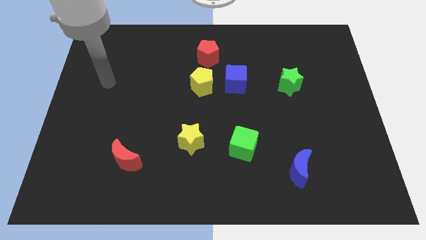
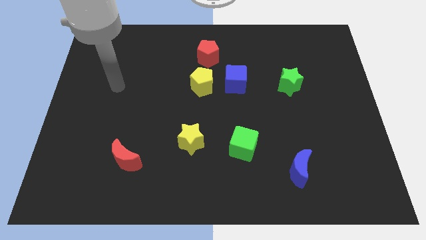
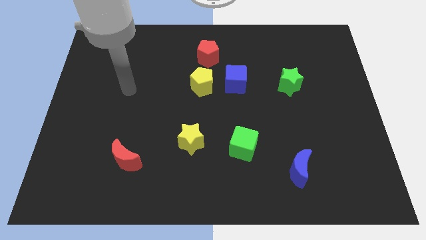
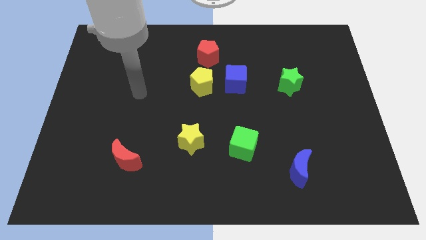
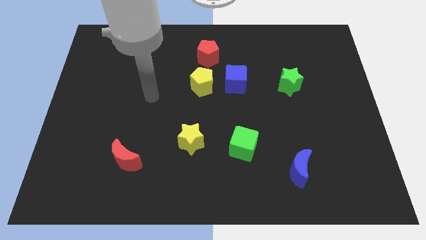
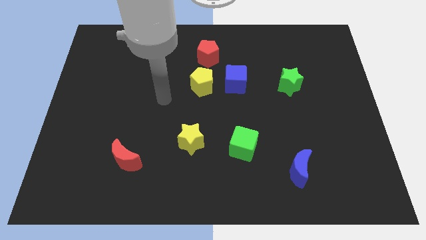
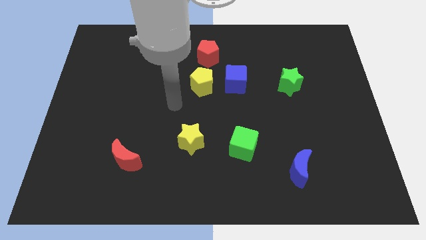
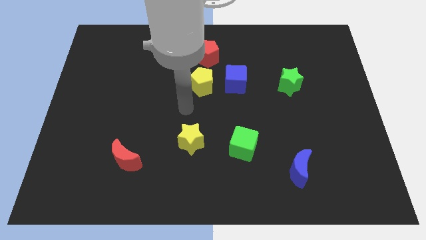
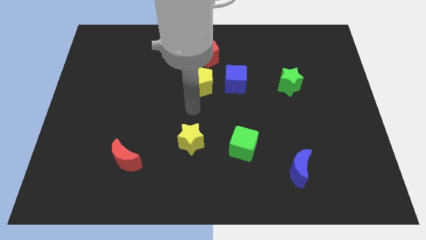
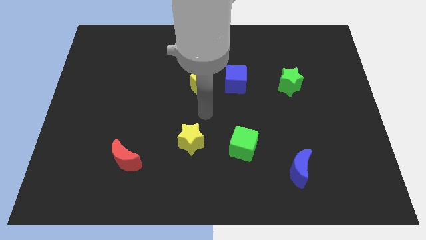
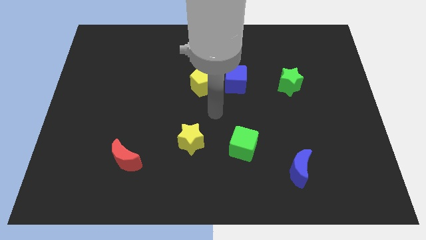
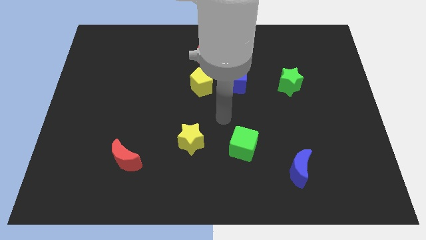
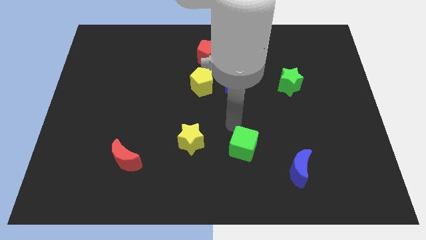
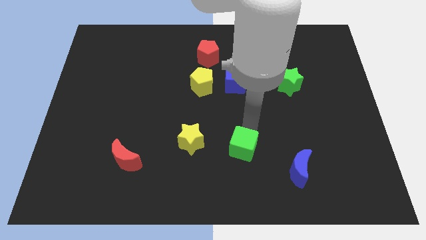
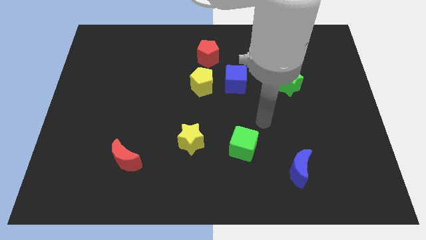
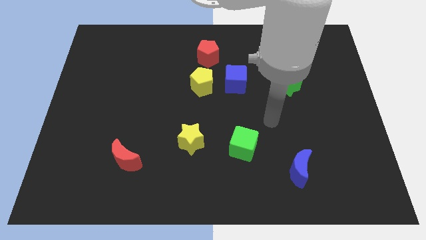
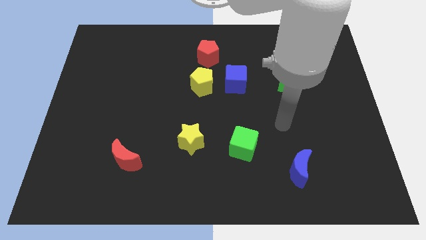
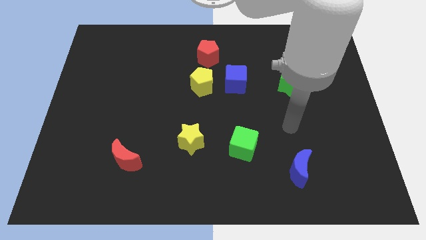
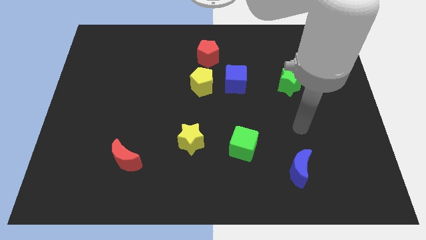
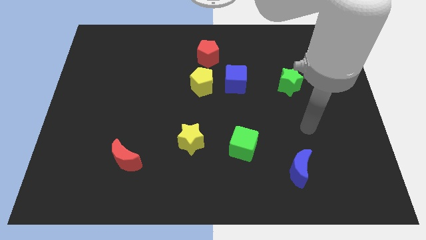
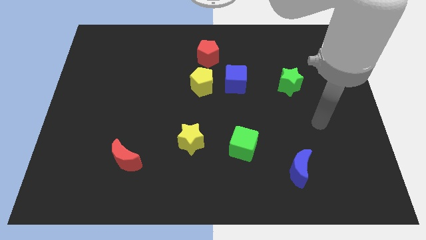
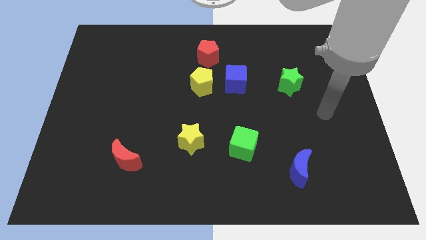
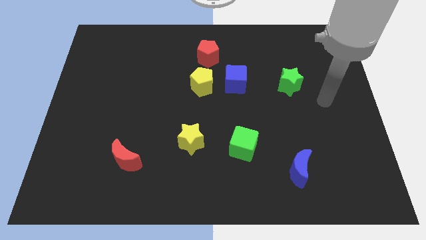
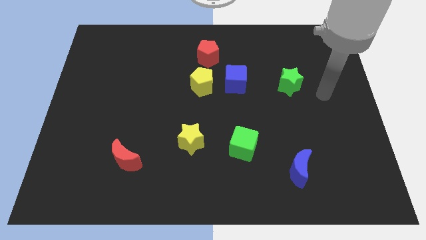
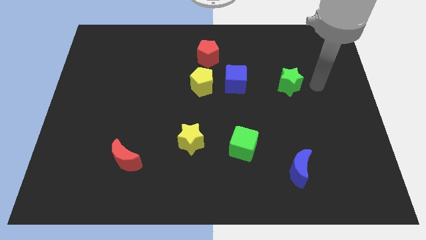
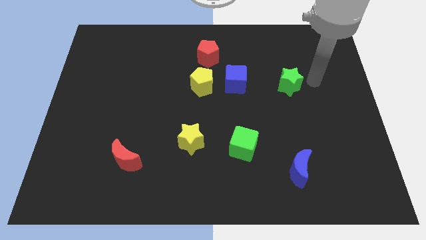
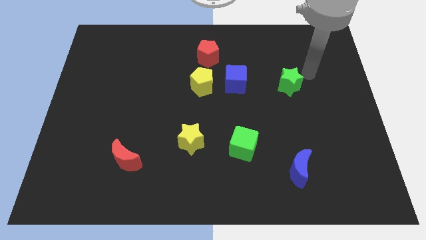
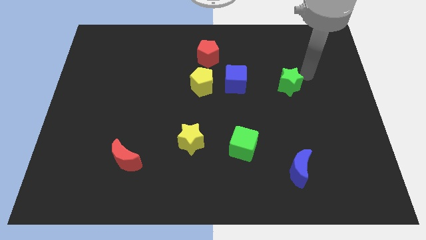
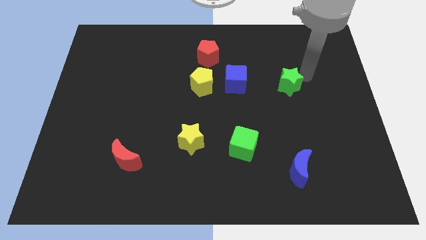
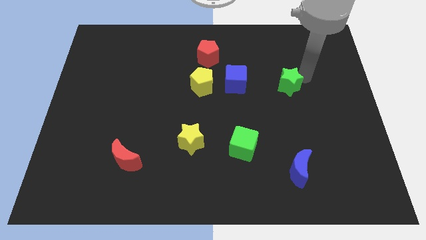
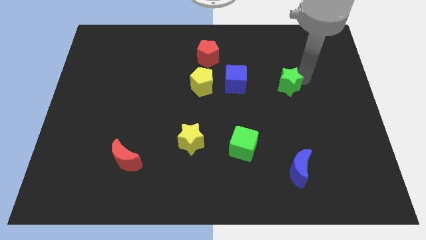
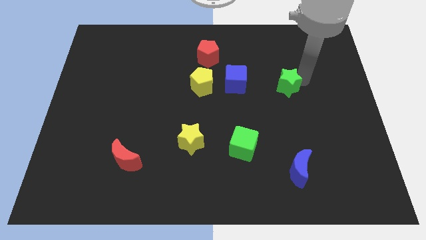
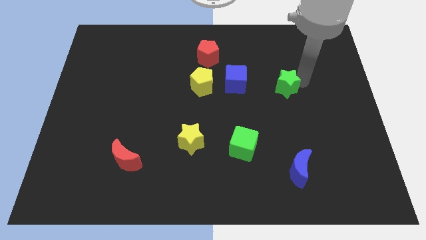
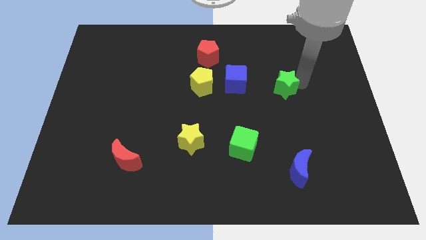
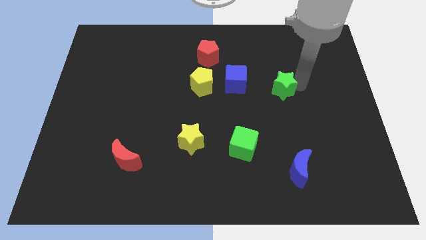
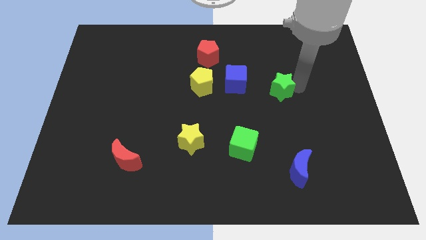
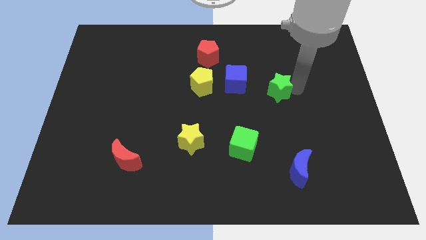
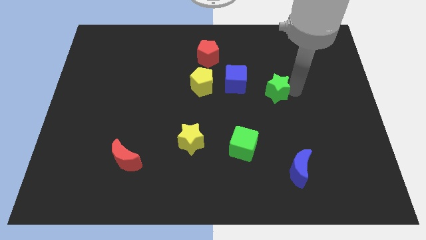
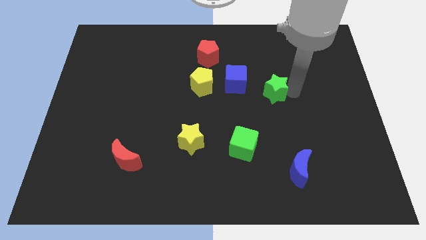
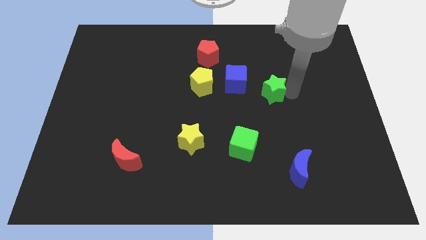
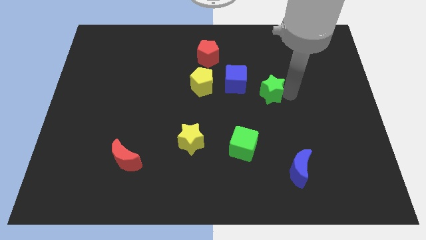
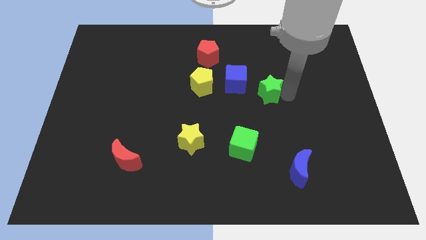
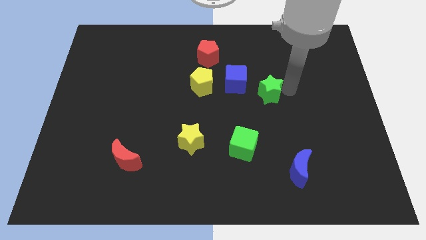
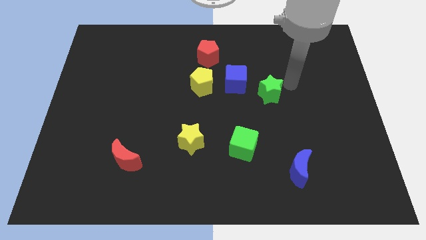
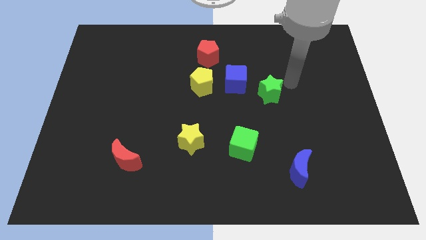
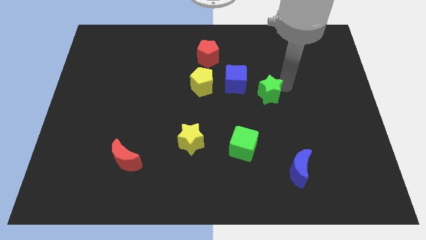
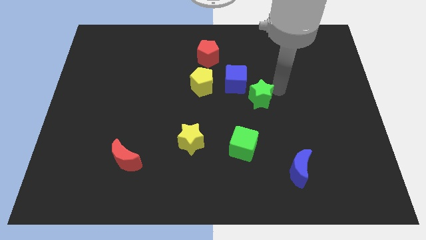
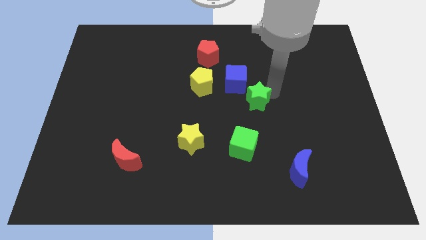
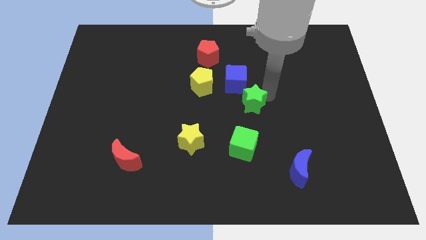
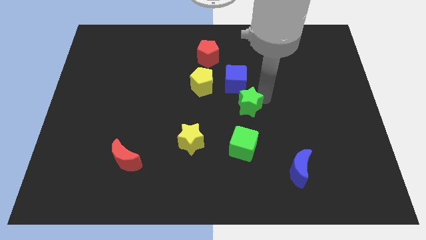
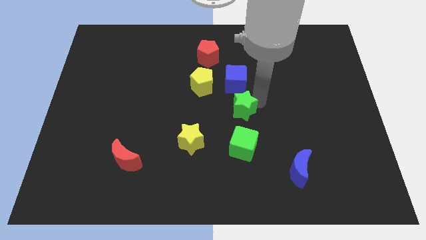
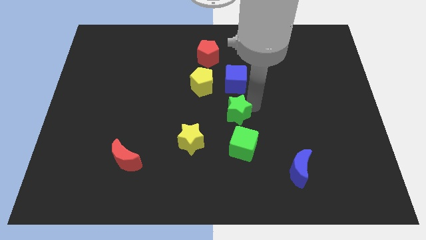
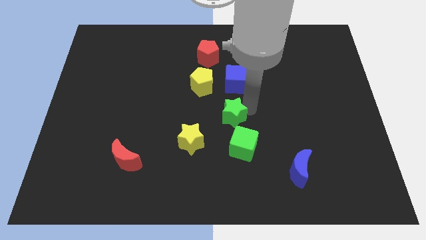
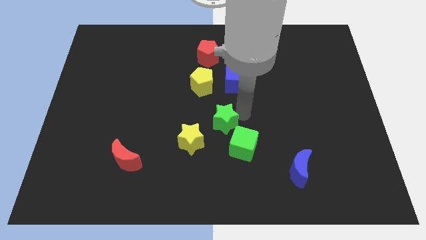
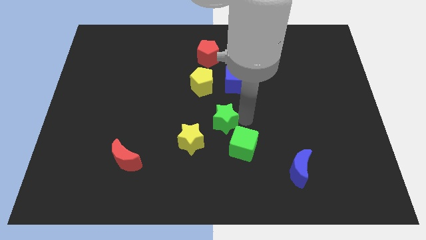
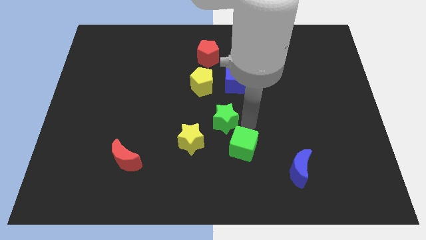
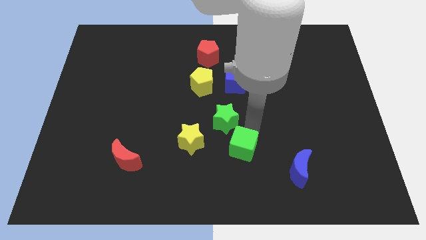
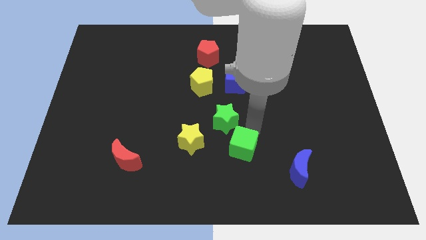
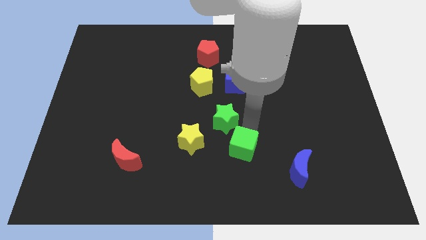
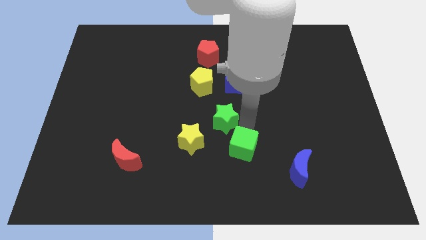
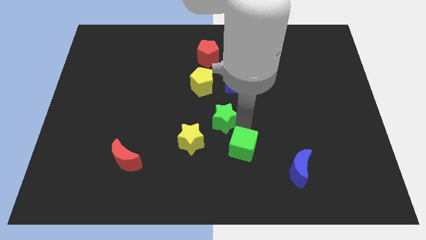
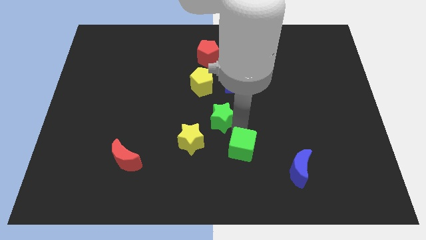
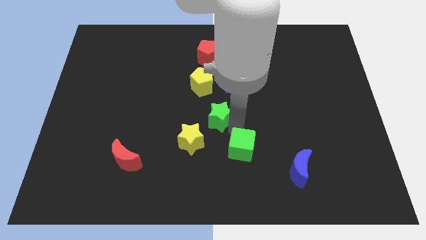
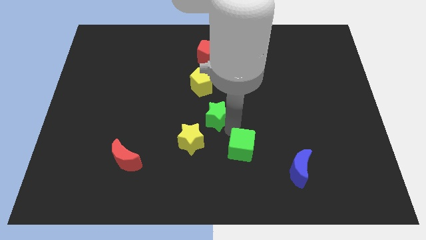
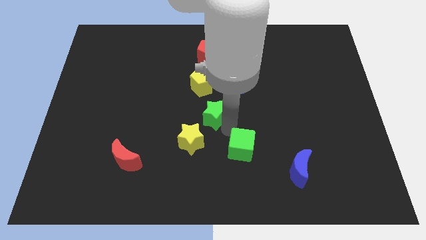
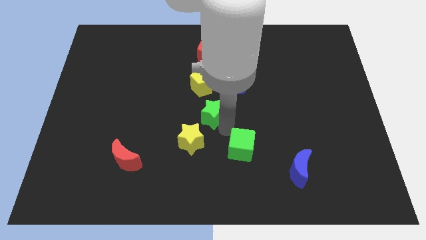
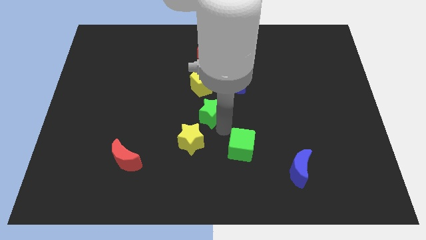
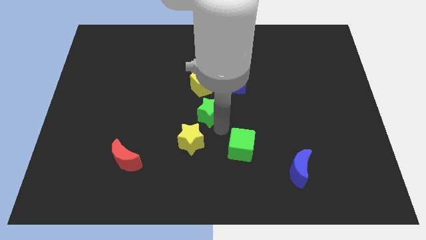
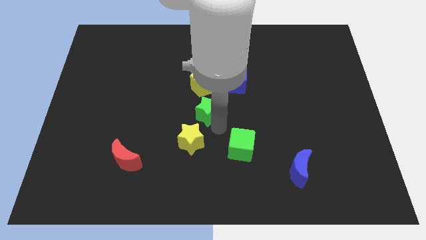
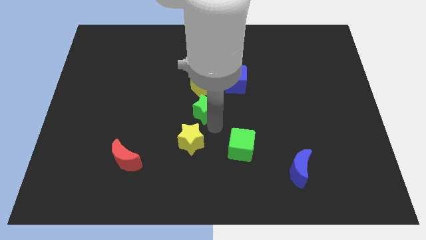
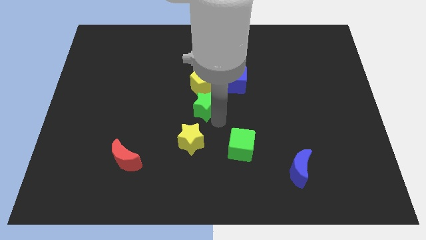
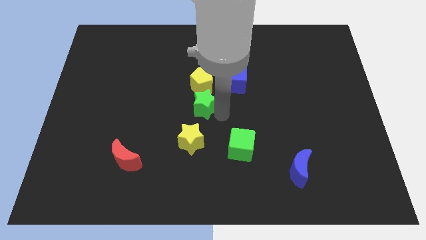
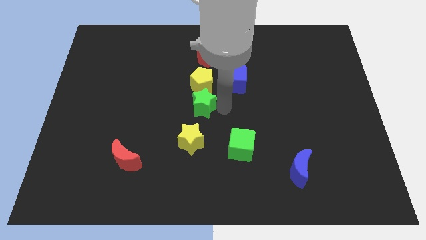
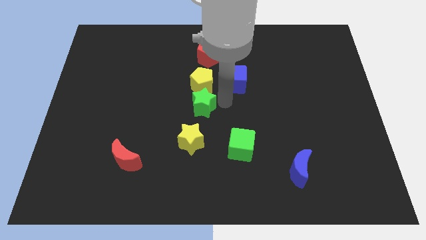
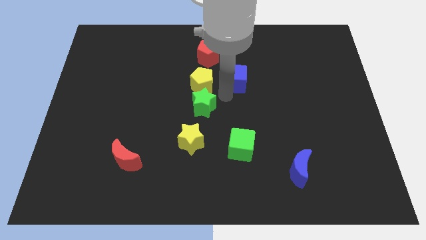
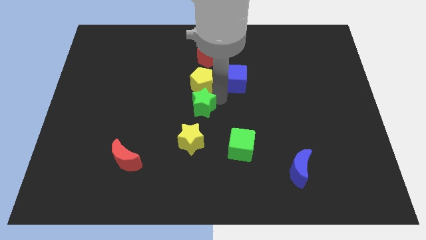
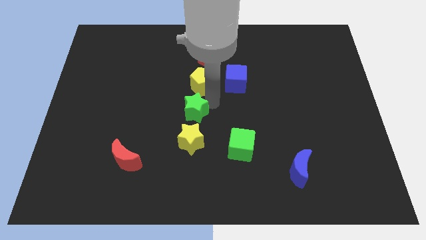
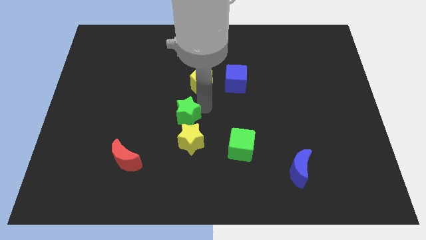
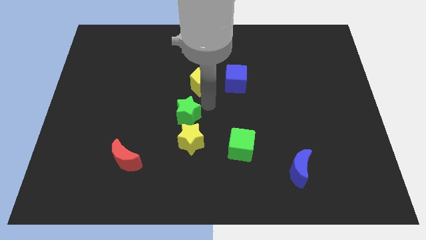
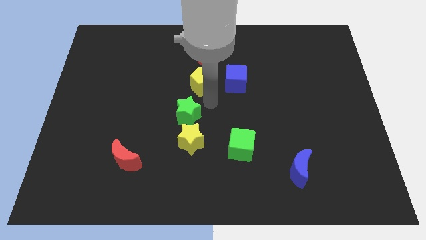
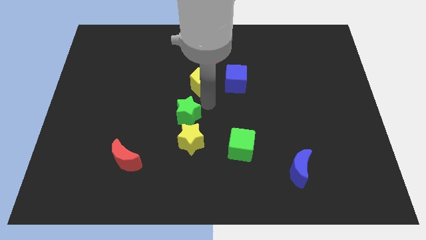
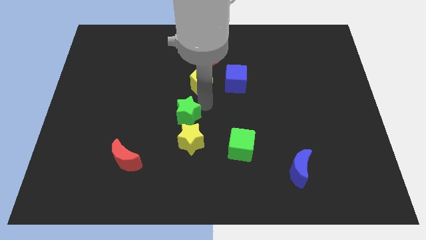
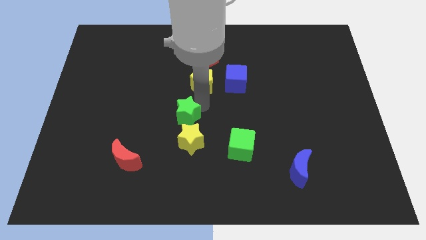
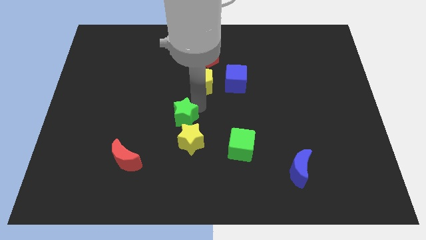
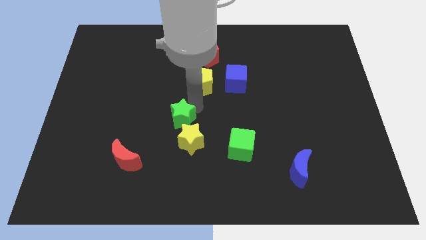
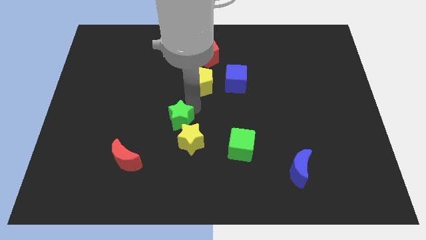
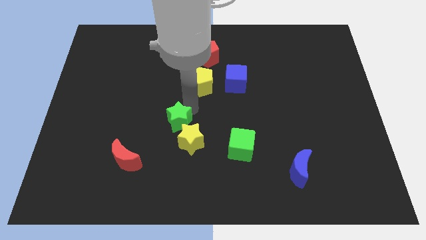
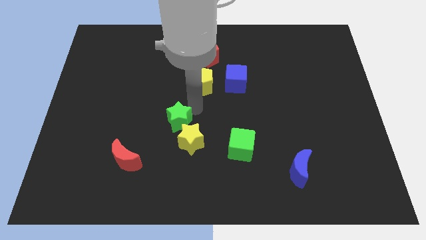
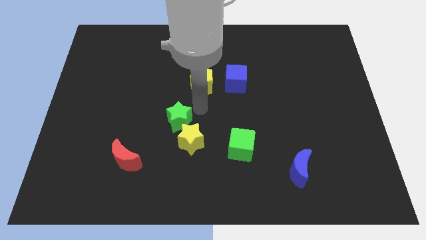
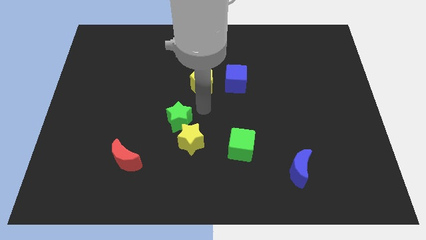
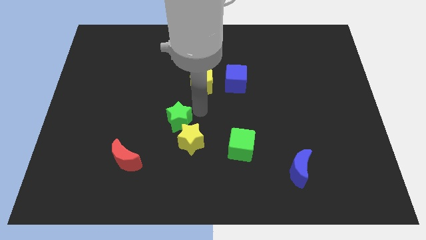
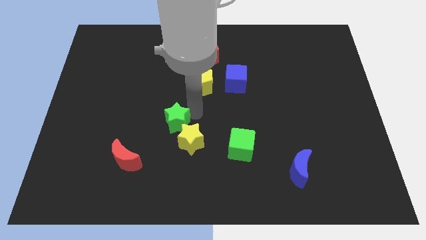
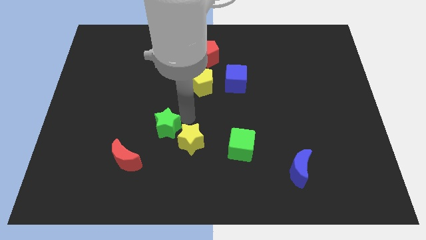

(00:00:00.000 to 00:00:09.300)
put the green star to the left side of the yellow star
